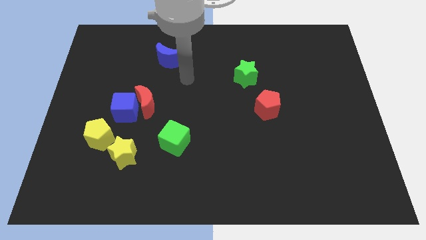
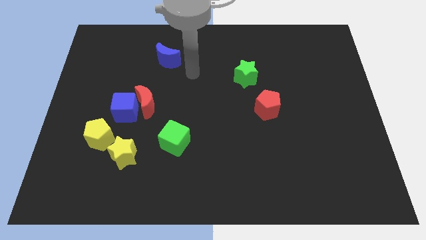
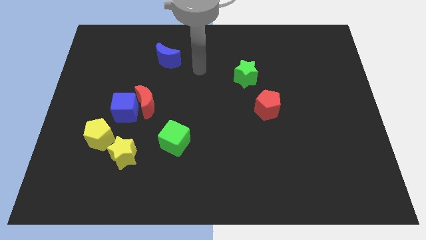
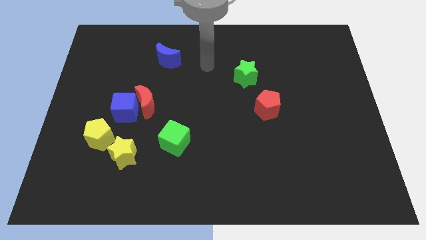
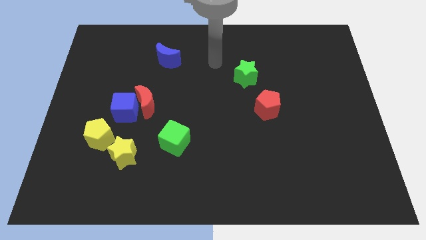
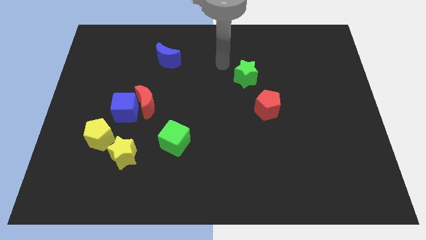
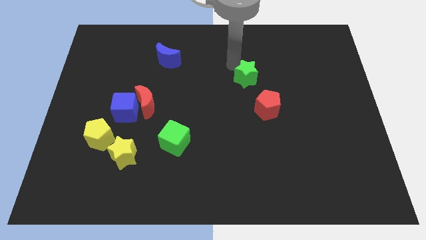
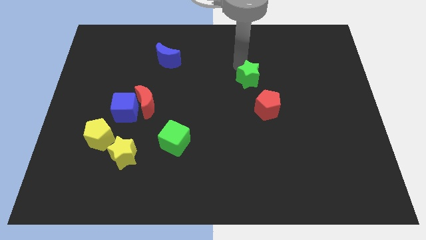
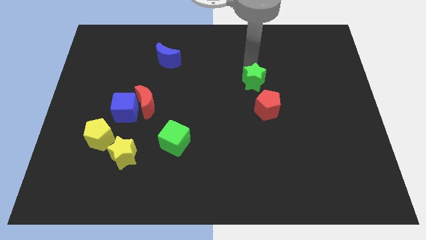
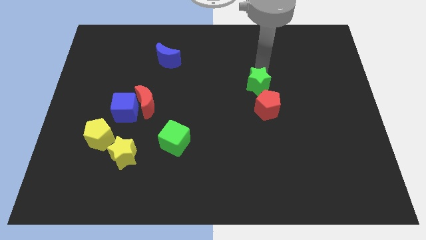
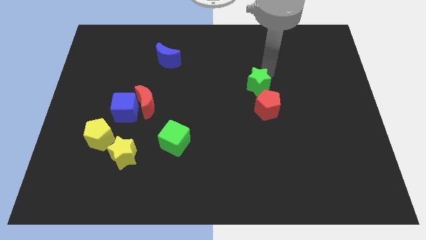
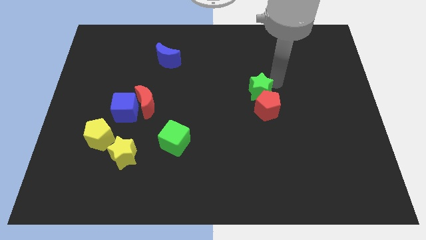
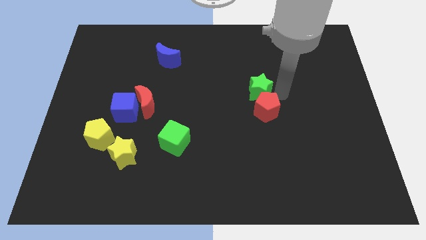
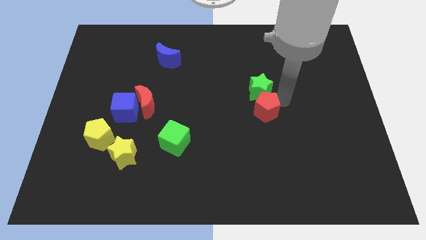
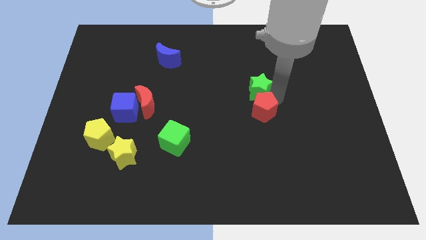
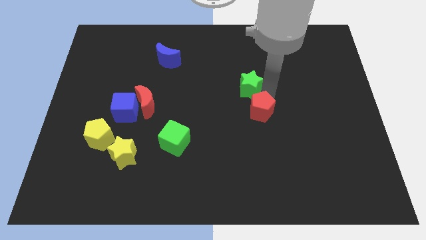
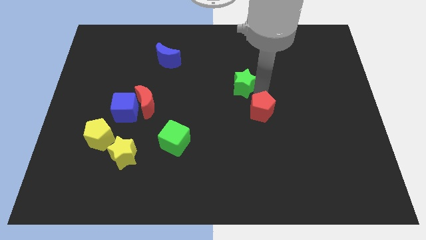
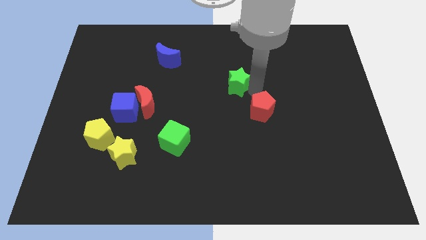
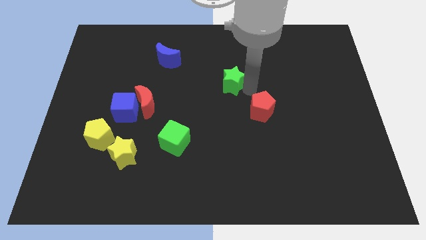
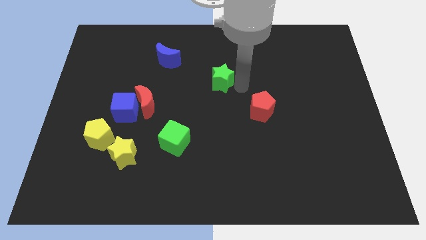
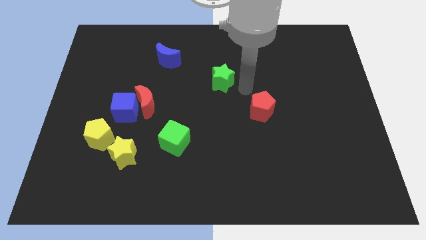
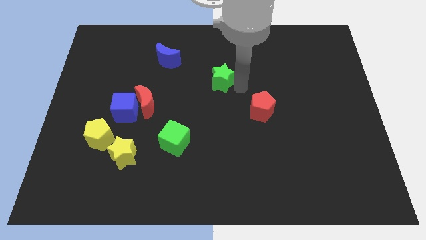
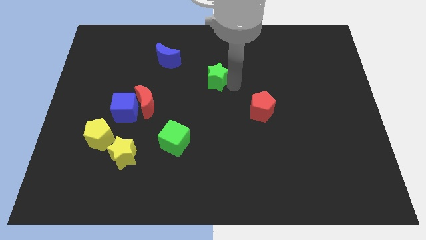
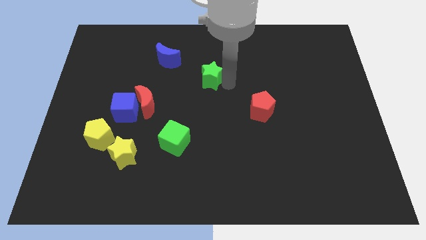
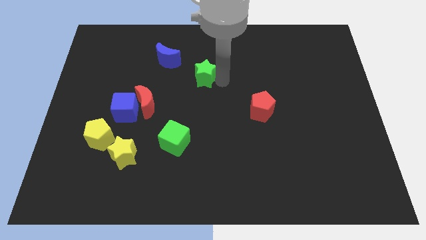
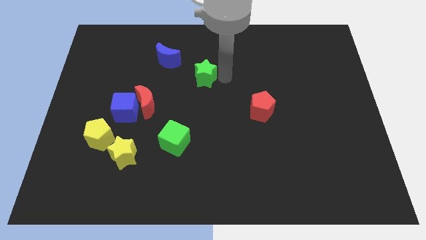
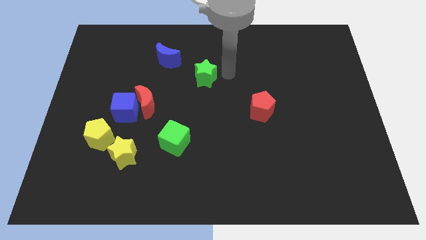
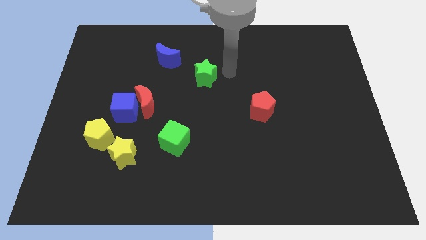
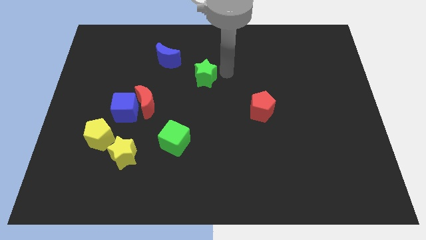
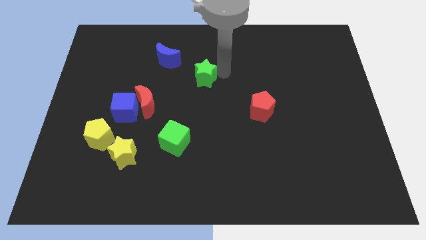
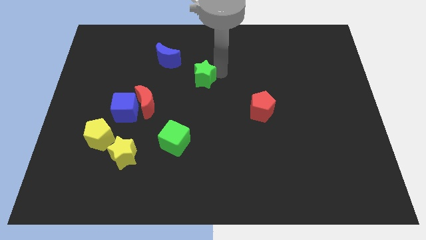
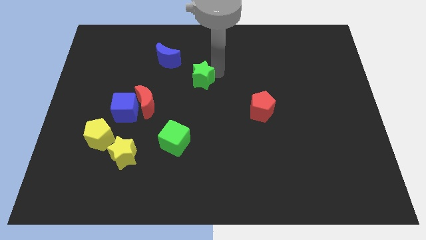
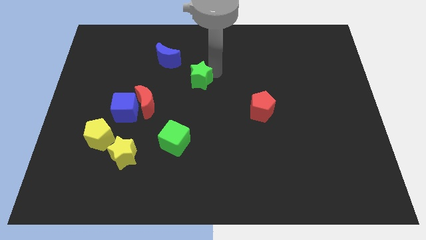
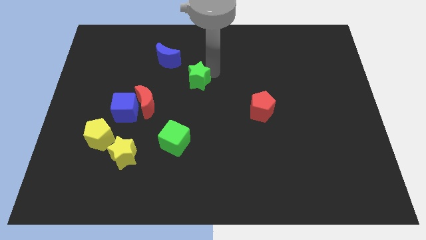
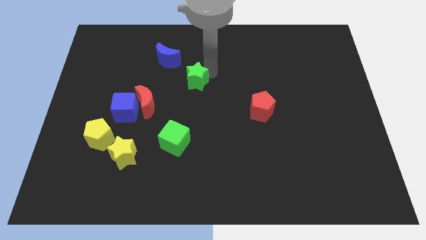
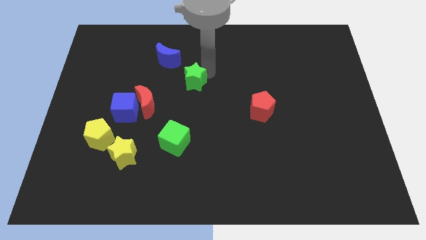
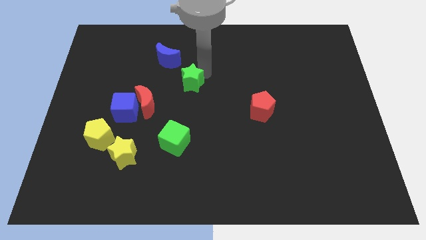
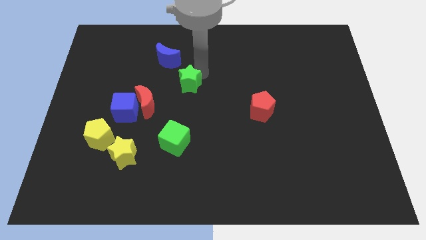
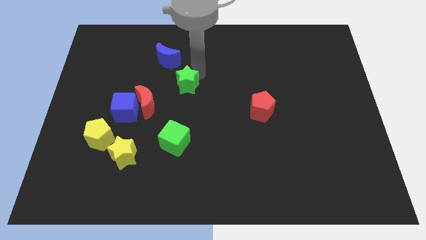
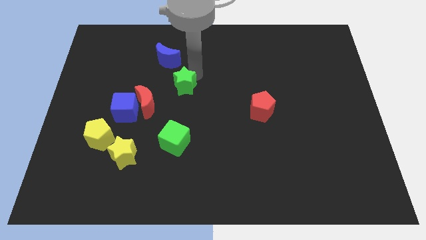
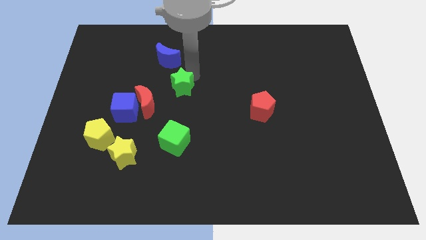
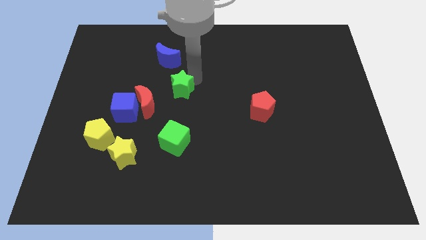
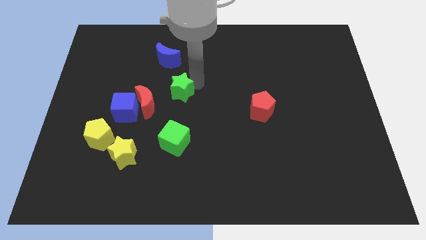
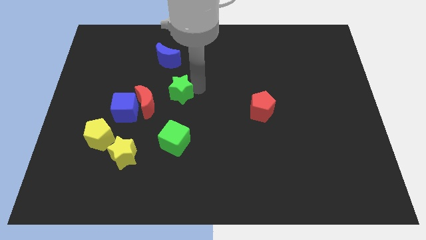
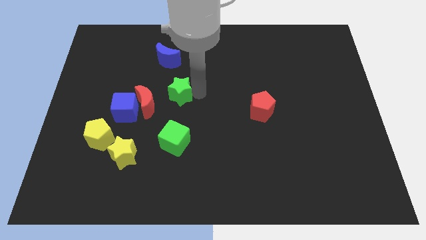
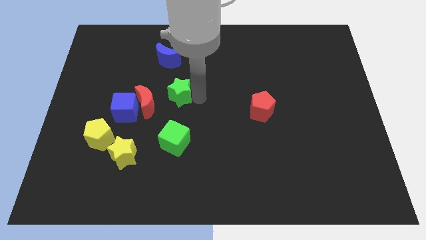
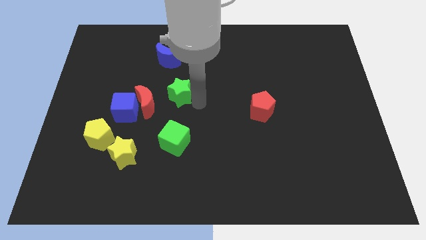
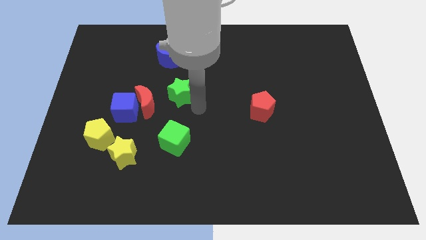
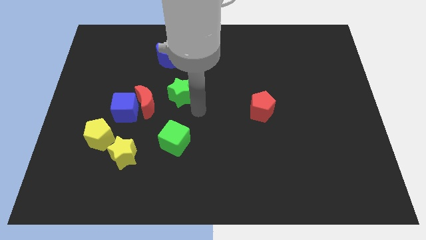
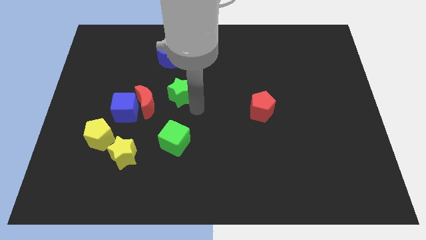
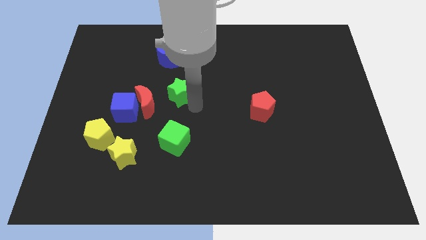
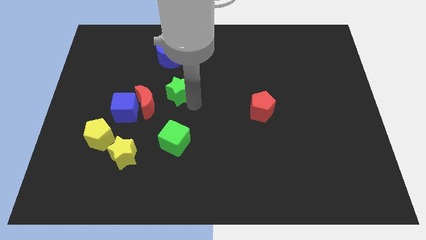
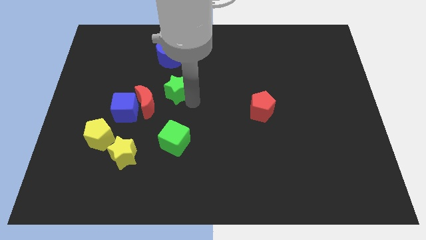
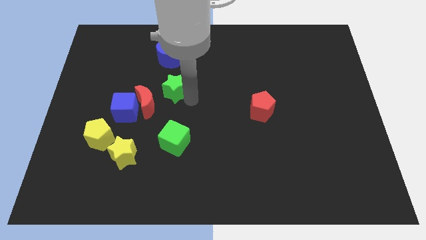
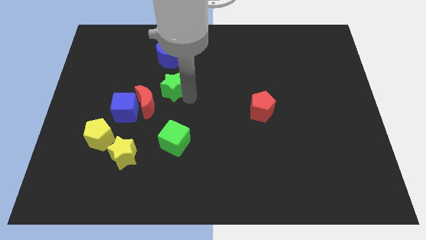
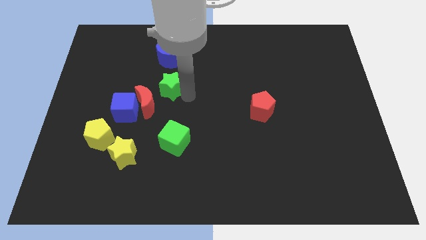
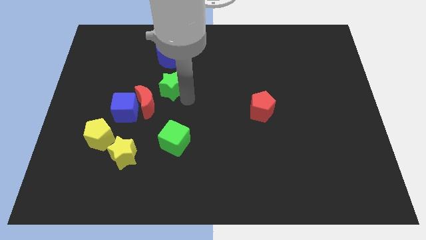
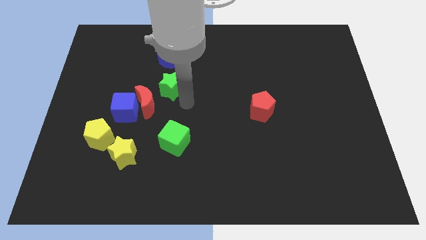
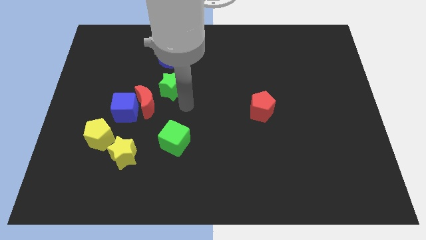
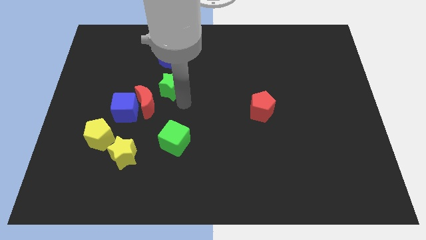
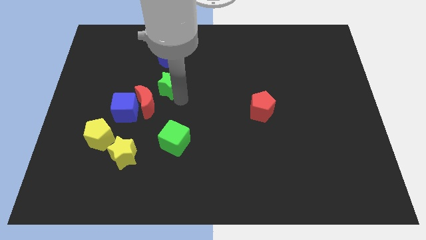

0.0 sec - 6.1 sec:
slide the green star to the top side of the red moon

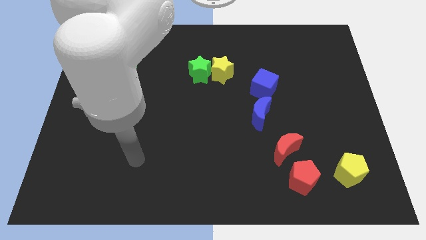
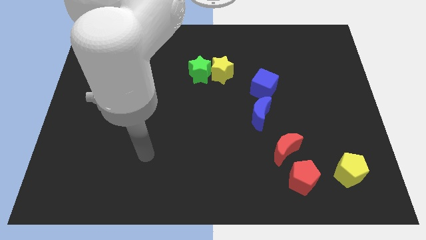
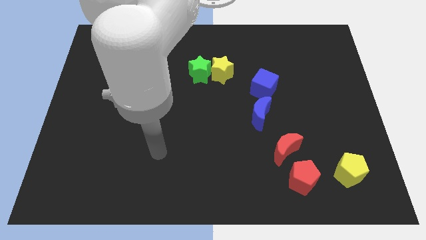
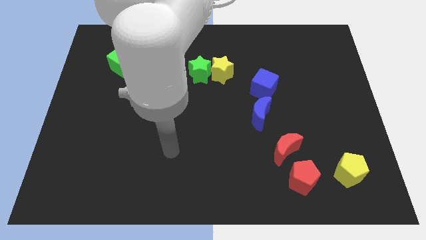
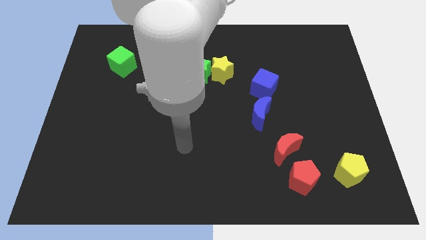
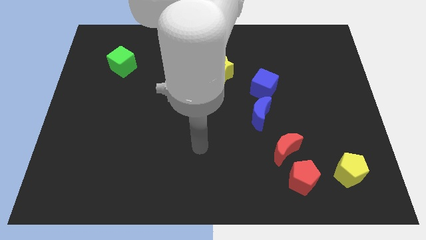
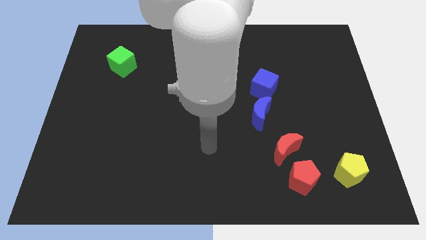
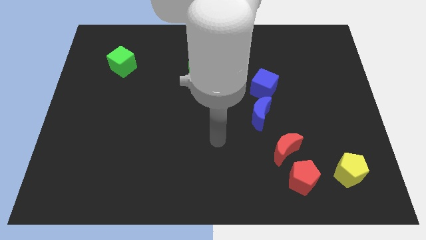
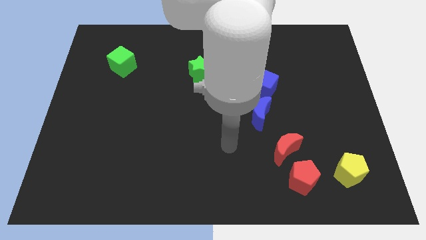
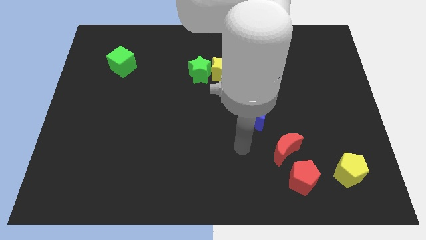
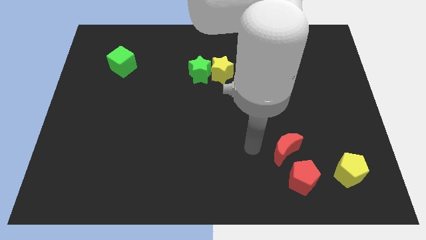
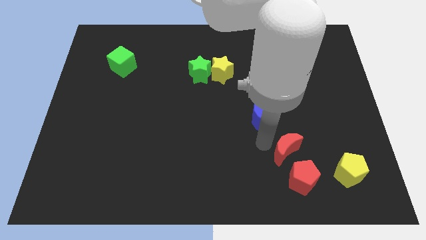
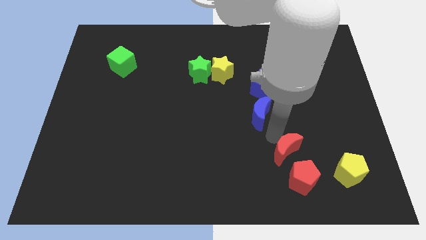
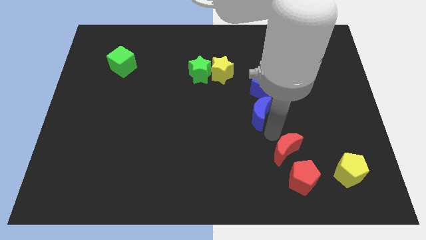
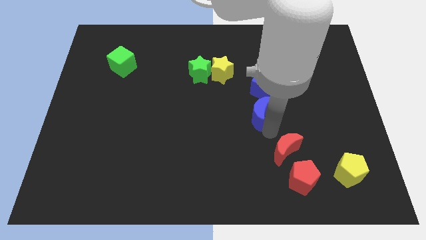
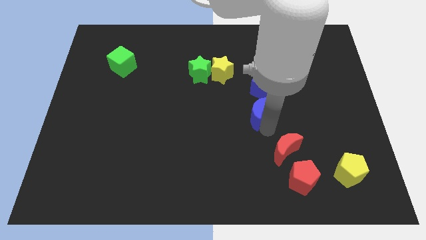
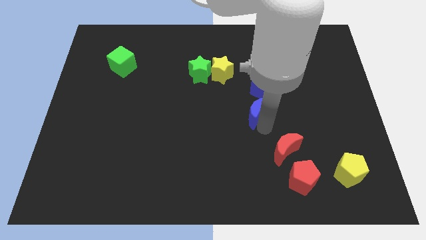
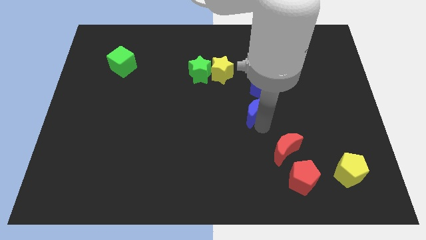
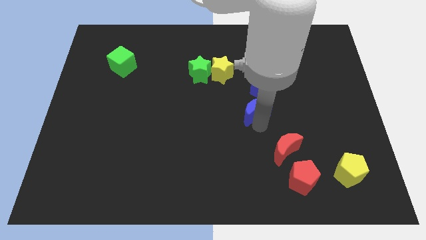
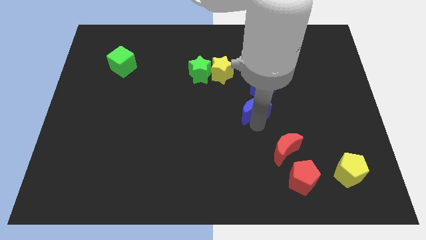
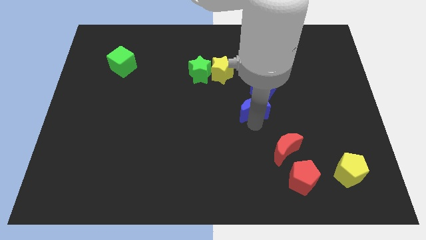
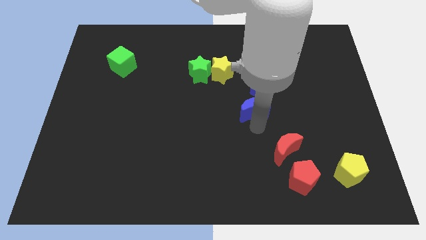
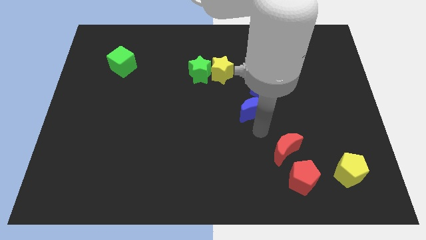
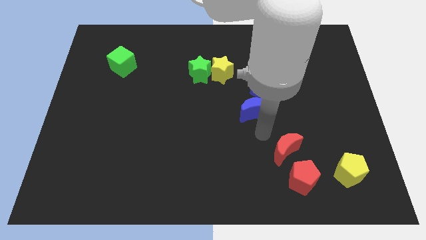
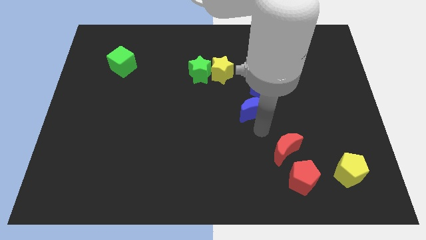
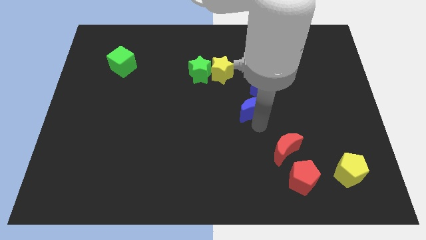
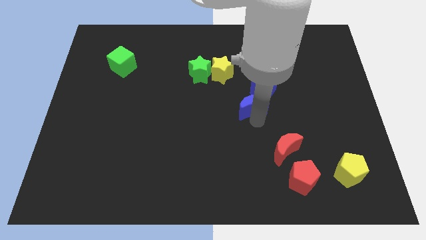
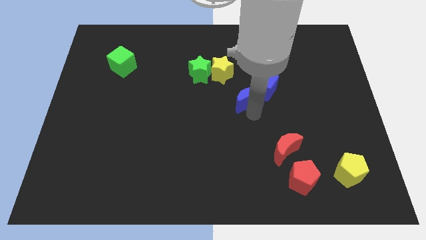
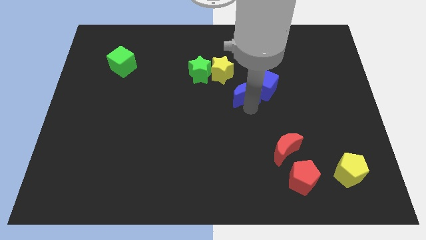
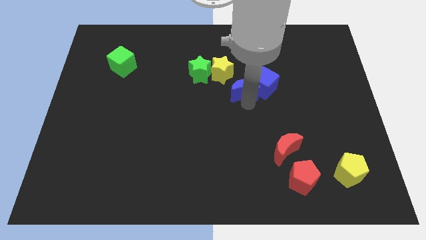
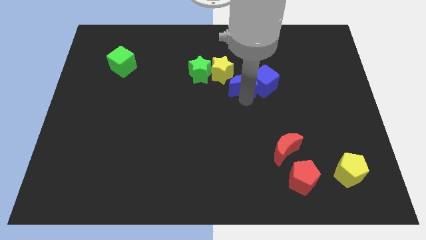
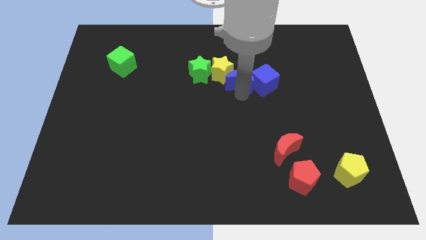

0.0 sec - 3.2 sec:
push the blue moon just right of the yellow star
